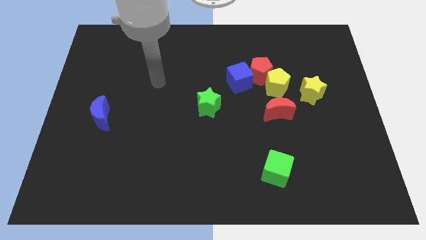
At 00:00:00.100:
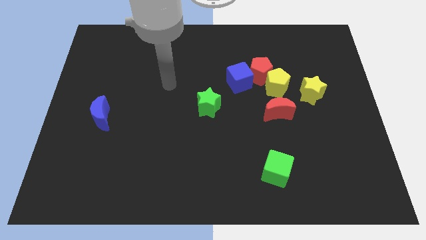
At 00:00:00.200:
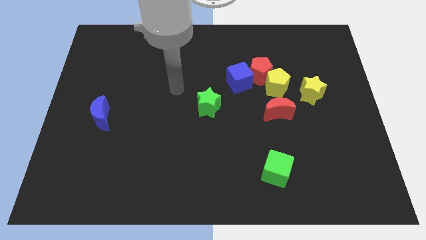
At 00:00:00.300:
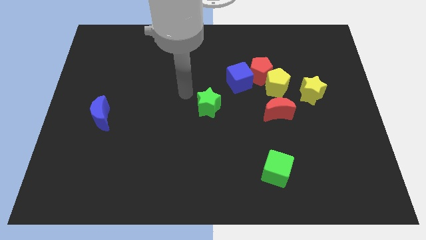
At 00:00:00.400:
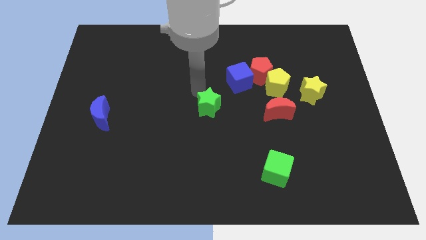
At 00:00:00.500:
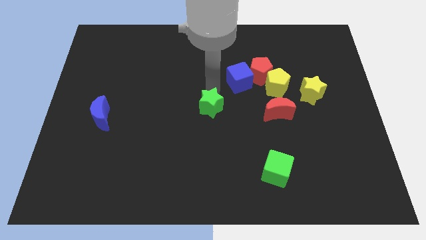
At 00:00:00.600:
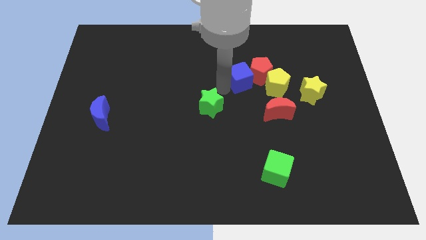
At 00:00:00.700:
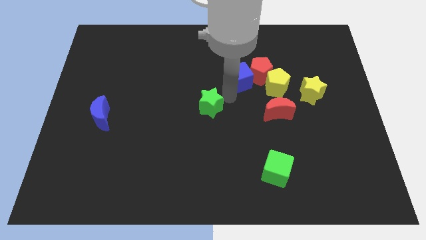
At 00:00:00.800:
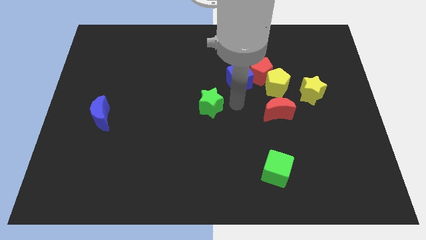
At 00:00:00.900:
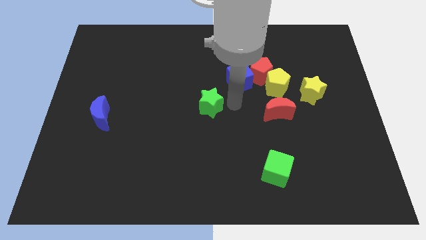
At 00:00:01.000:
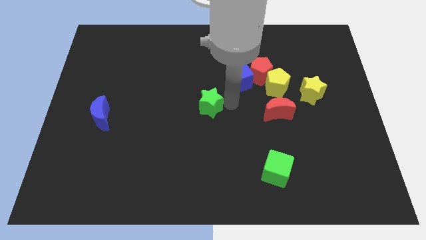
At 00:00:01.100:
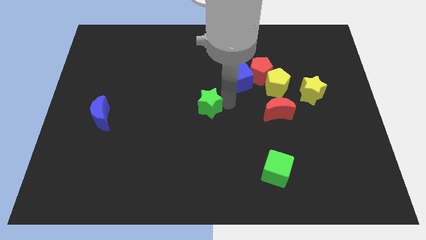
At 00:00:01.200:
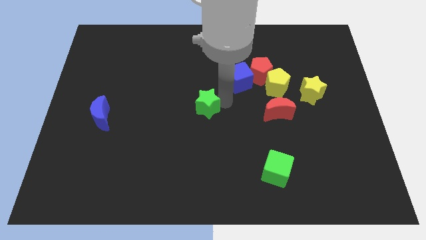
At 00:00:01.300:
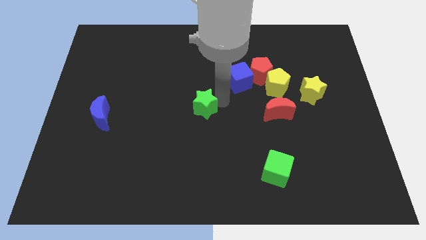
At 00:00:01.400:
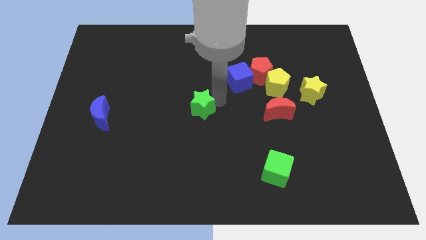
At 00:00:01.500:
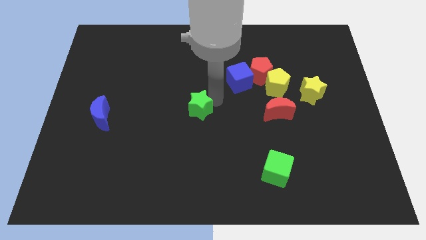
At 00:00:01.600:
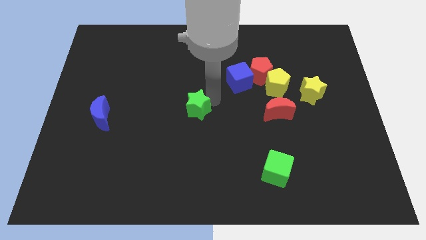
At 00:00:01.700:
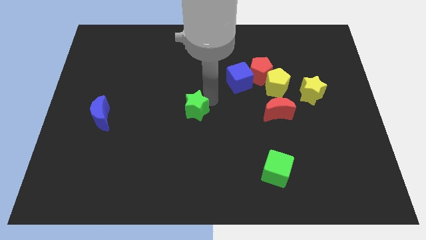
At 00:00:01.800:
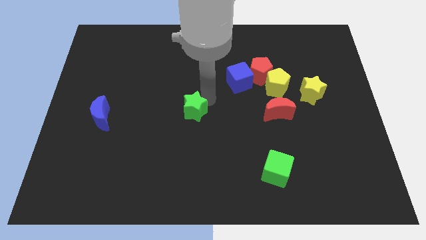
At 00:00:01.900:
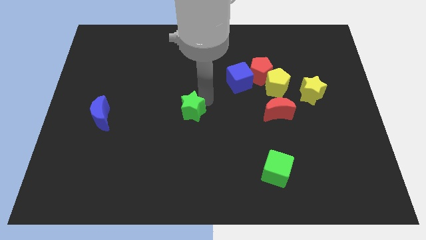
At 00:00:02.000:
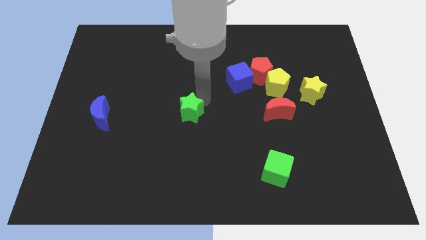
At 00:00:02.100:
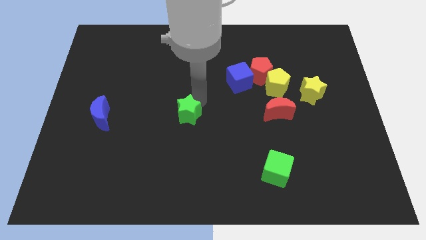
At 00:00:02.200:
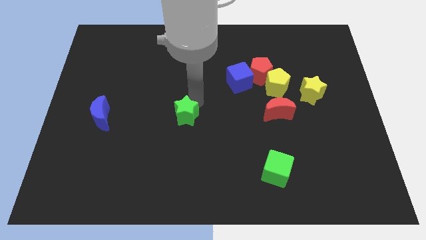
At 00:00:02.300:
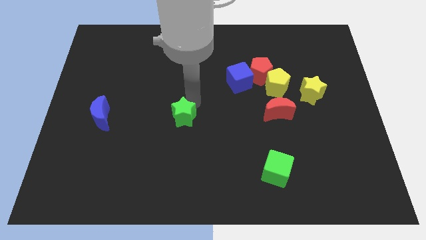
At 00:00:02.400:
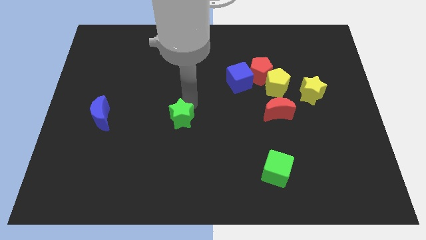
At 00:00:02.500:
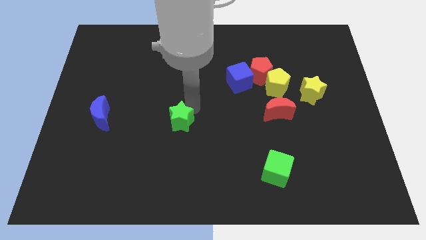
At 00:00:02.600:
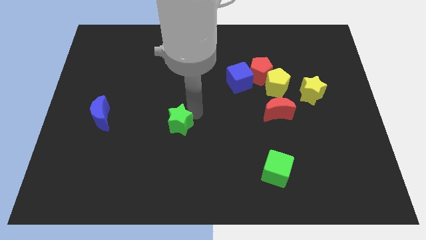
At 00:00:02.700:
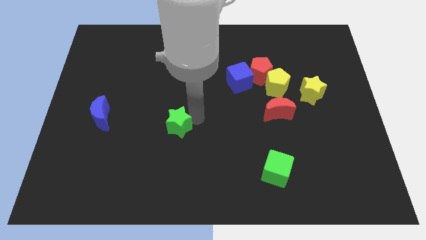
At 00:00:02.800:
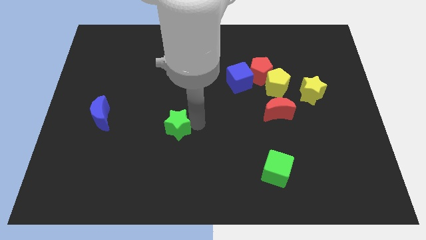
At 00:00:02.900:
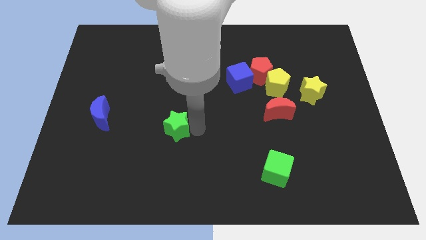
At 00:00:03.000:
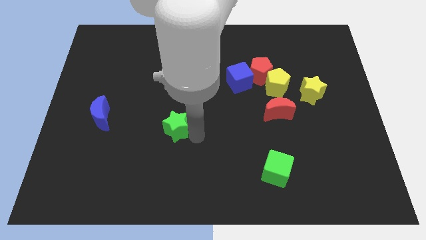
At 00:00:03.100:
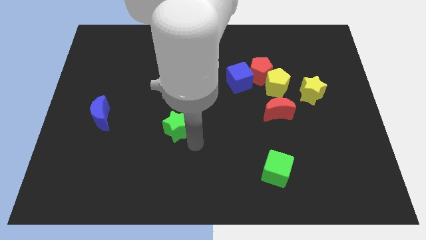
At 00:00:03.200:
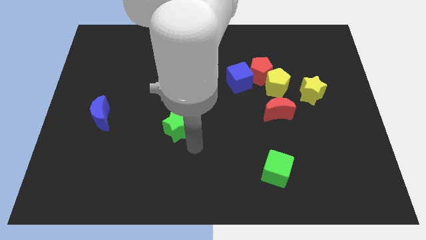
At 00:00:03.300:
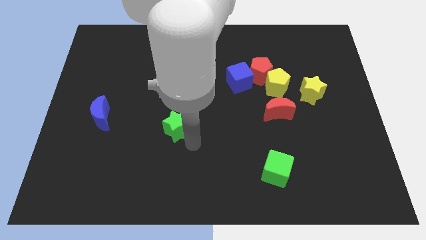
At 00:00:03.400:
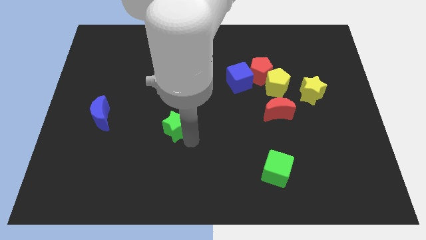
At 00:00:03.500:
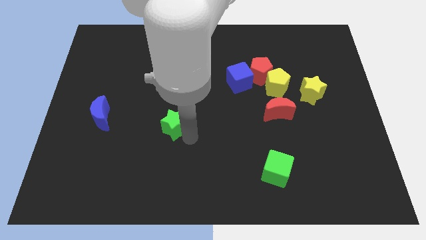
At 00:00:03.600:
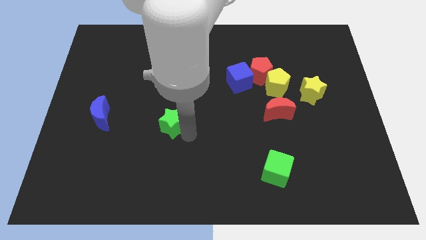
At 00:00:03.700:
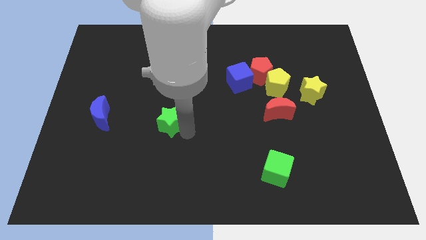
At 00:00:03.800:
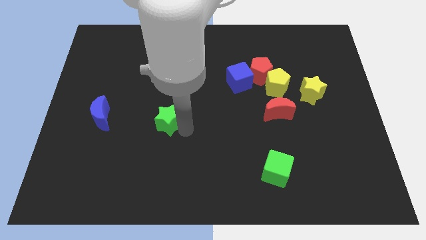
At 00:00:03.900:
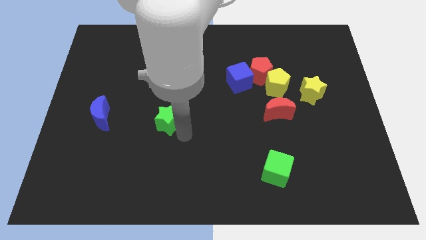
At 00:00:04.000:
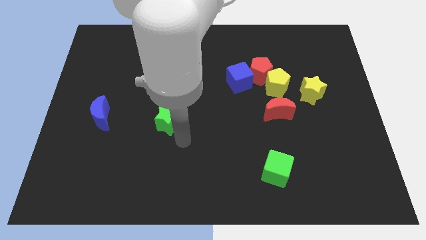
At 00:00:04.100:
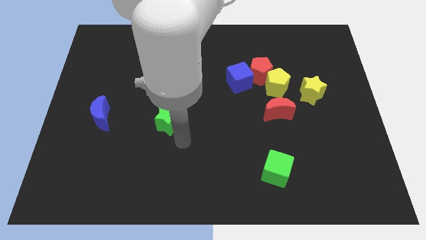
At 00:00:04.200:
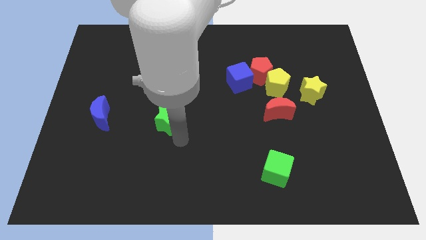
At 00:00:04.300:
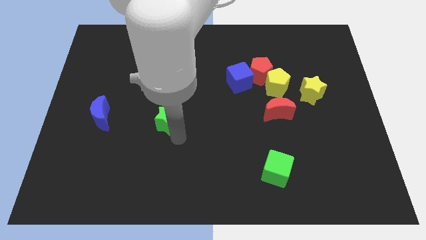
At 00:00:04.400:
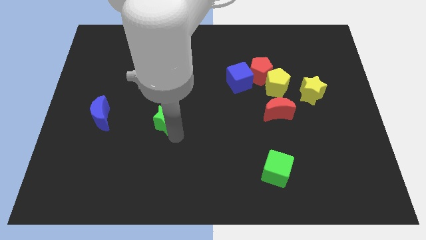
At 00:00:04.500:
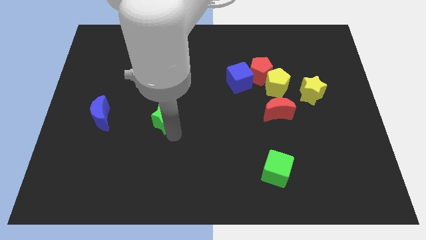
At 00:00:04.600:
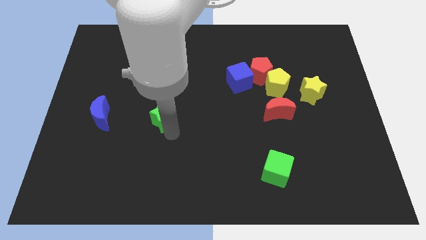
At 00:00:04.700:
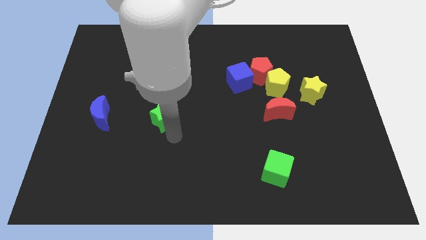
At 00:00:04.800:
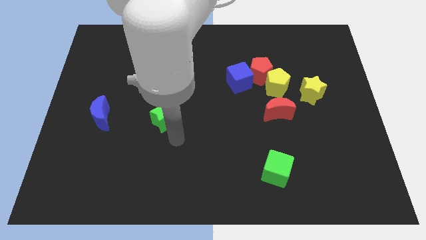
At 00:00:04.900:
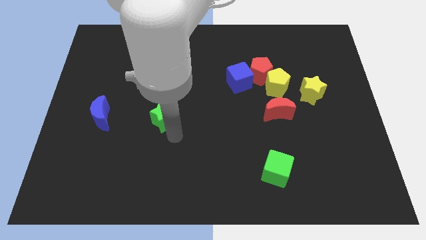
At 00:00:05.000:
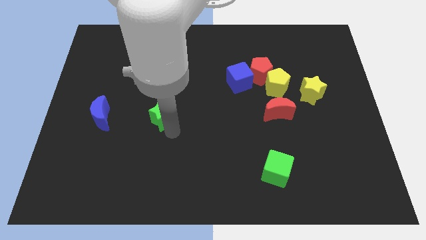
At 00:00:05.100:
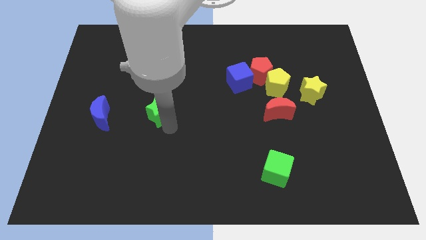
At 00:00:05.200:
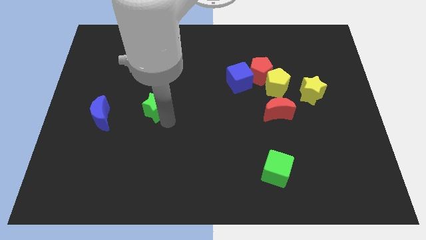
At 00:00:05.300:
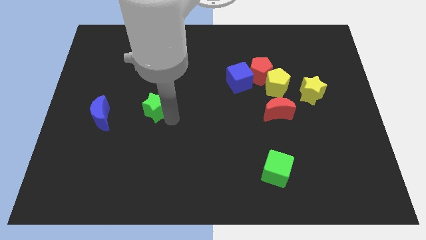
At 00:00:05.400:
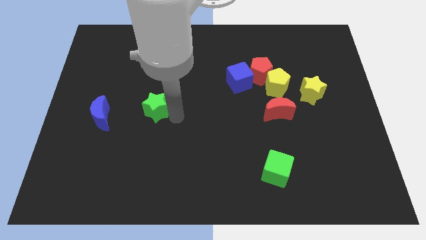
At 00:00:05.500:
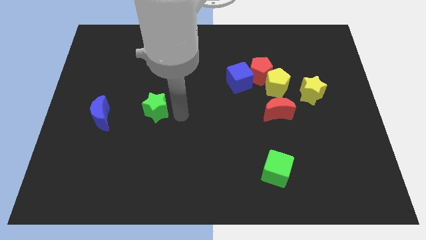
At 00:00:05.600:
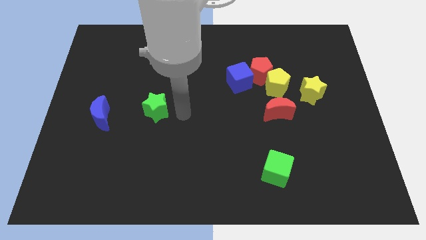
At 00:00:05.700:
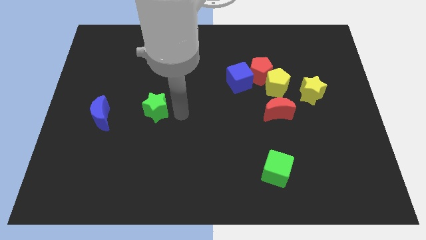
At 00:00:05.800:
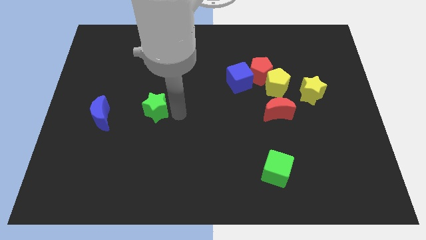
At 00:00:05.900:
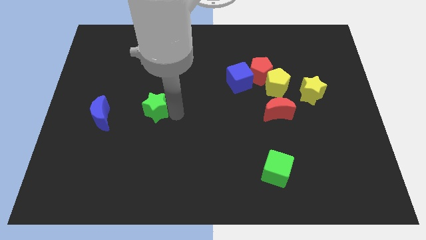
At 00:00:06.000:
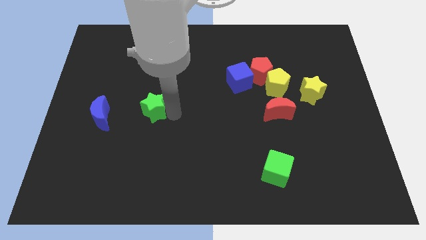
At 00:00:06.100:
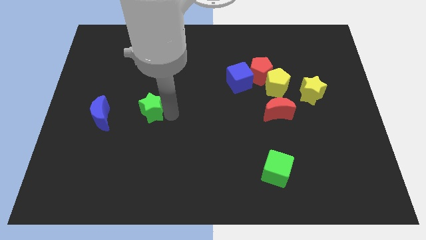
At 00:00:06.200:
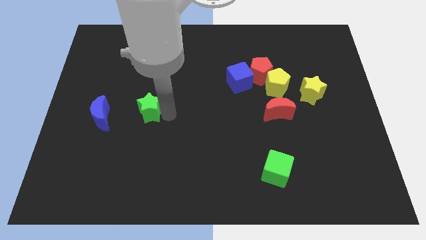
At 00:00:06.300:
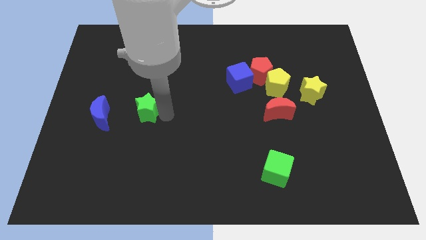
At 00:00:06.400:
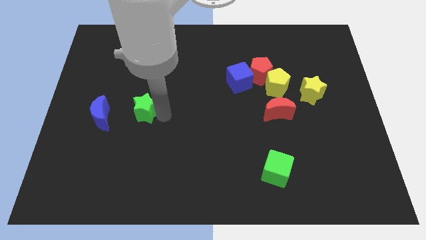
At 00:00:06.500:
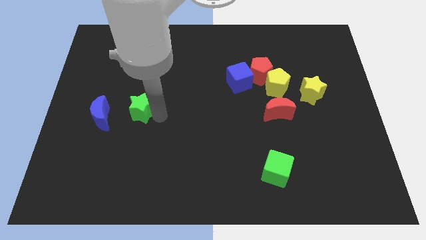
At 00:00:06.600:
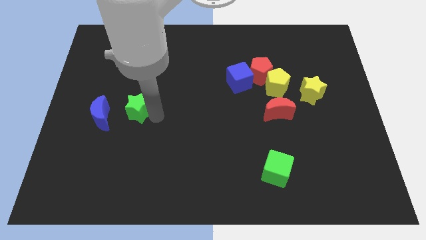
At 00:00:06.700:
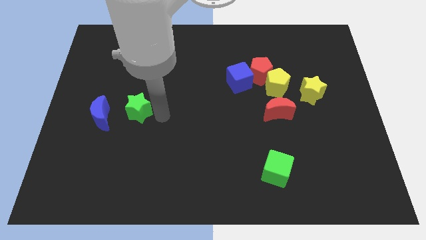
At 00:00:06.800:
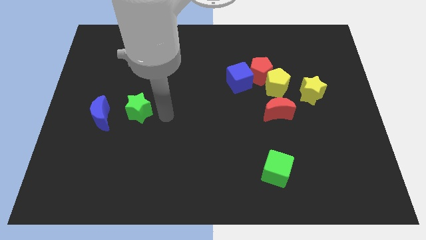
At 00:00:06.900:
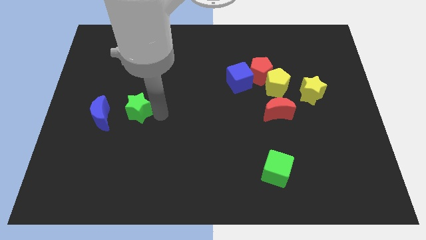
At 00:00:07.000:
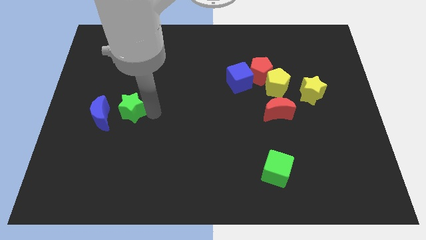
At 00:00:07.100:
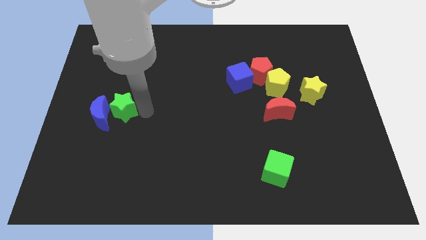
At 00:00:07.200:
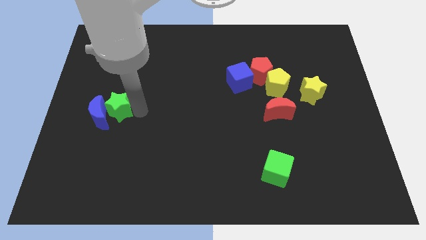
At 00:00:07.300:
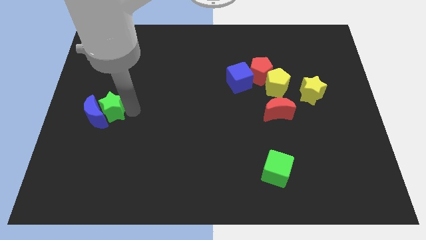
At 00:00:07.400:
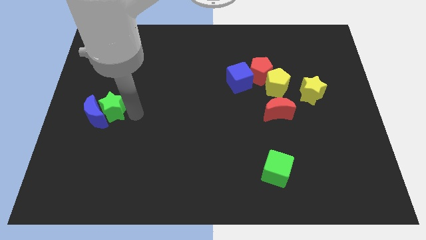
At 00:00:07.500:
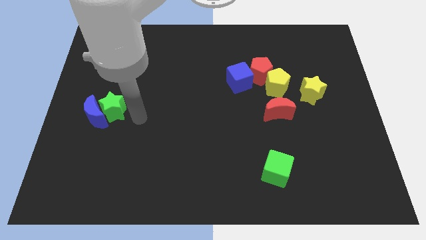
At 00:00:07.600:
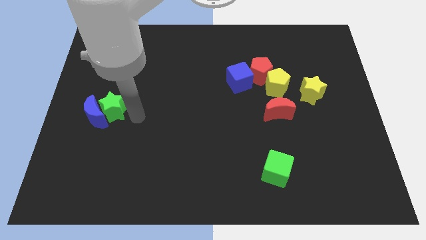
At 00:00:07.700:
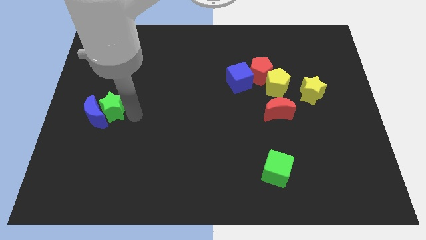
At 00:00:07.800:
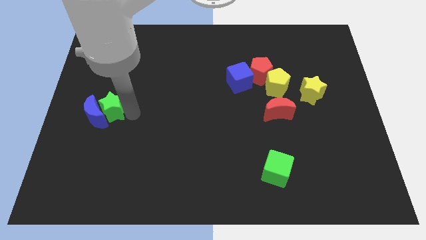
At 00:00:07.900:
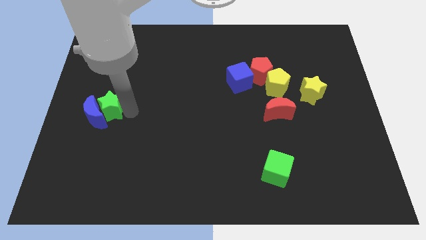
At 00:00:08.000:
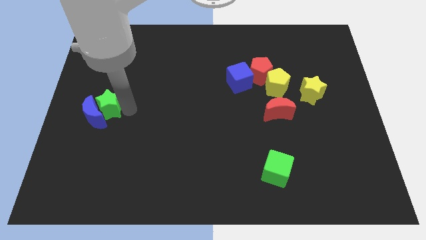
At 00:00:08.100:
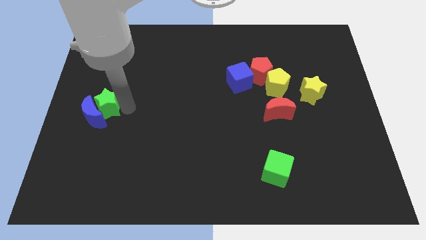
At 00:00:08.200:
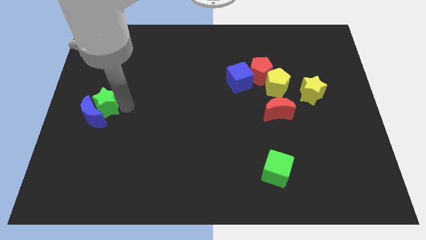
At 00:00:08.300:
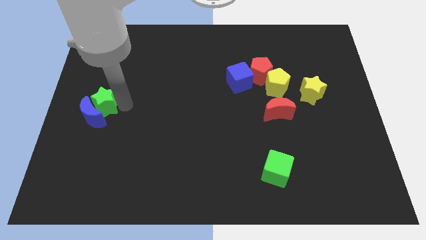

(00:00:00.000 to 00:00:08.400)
move the green star to the left side of the board
